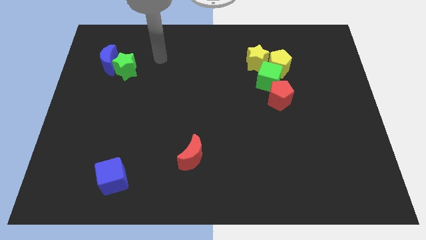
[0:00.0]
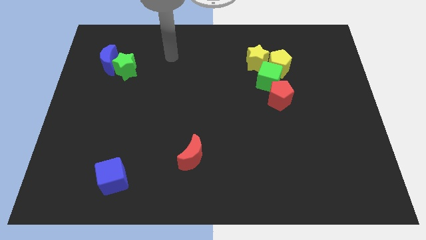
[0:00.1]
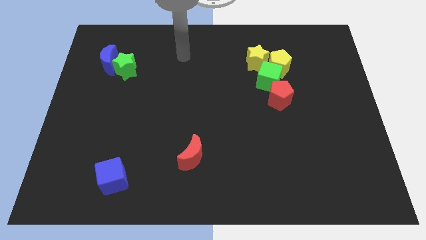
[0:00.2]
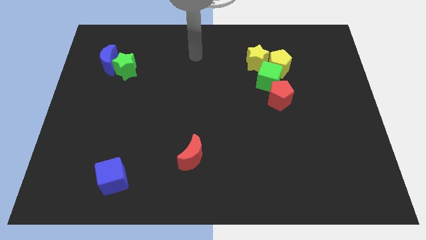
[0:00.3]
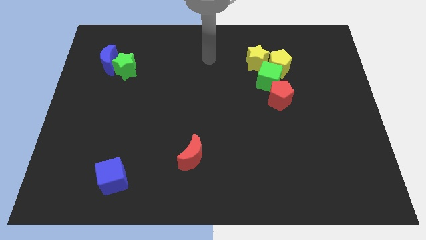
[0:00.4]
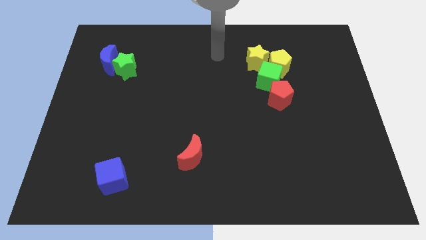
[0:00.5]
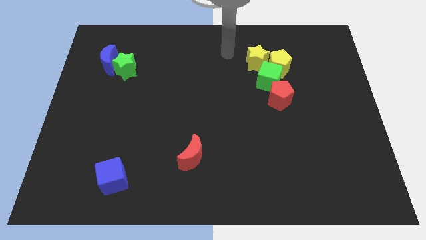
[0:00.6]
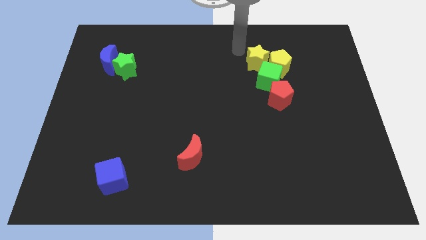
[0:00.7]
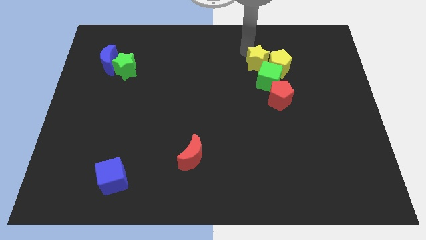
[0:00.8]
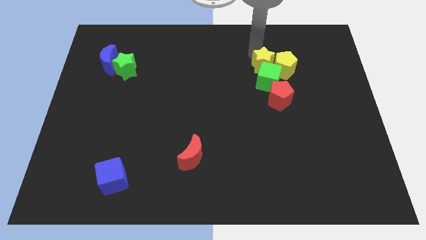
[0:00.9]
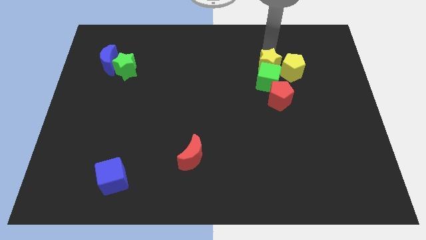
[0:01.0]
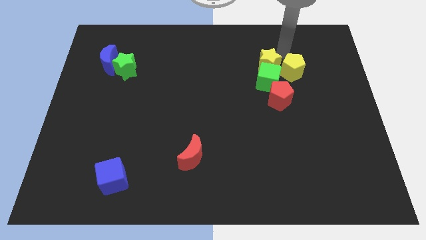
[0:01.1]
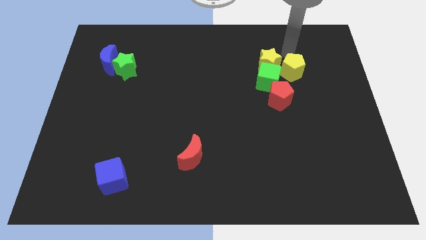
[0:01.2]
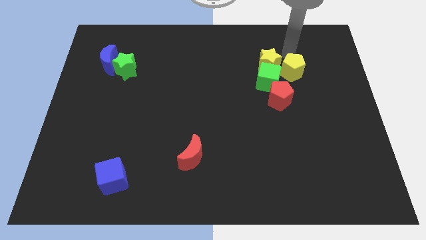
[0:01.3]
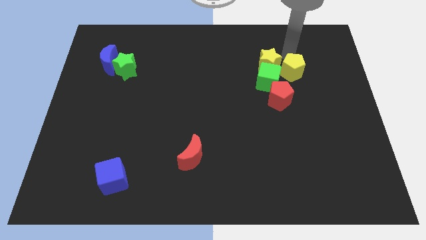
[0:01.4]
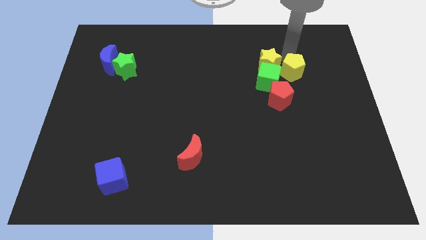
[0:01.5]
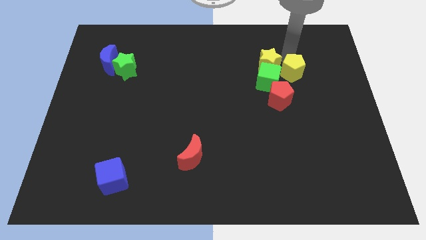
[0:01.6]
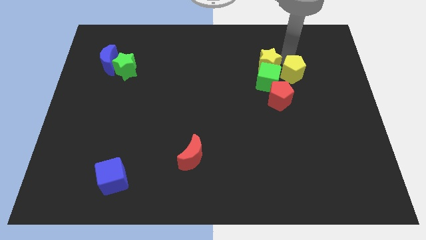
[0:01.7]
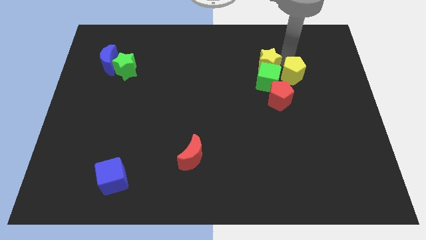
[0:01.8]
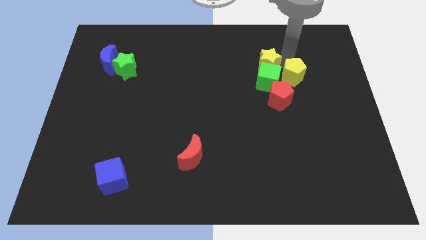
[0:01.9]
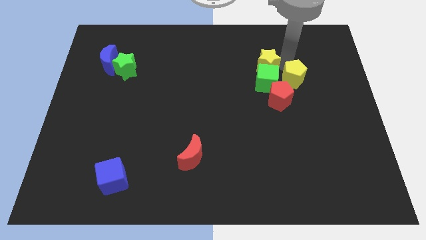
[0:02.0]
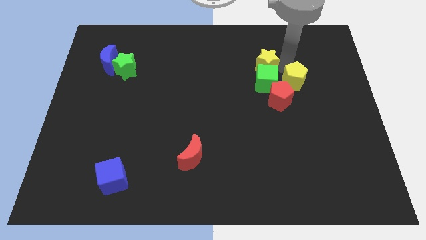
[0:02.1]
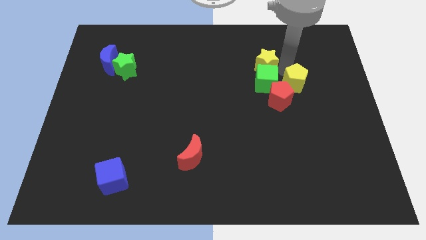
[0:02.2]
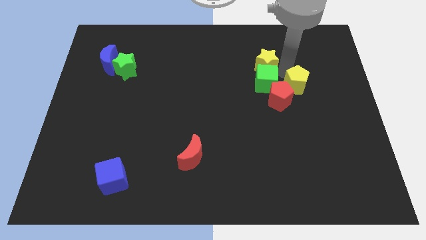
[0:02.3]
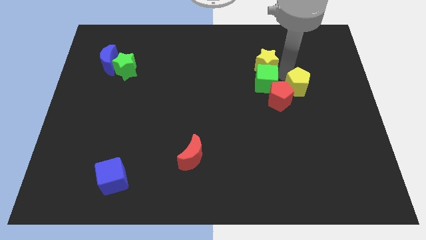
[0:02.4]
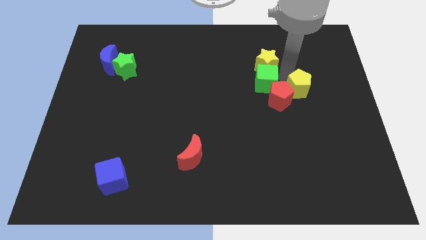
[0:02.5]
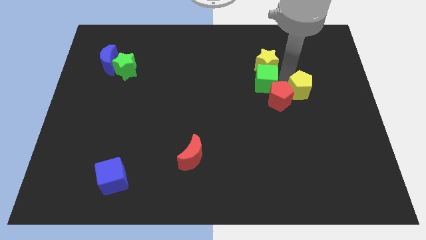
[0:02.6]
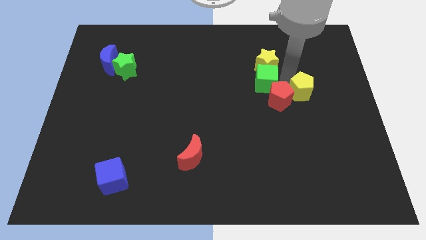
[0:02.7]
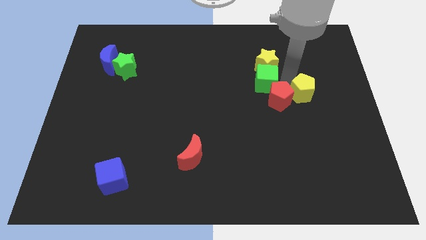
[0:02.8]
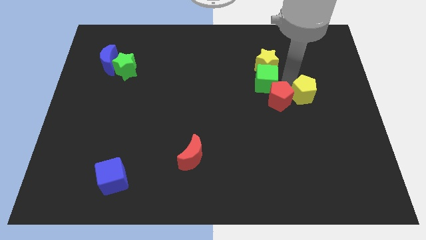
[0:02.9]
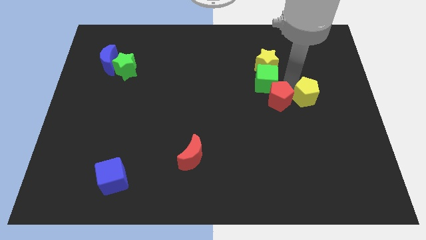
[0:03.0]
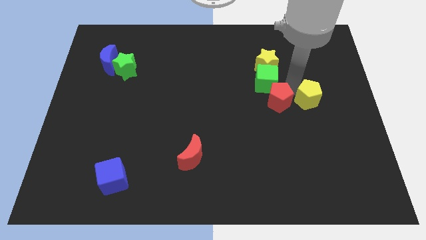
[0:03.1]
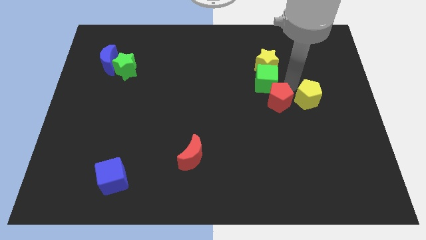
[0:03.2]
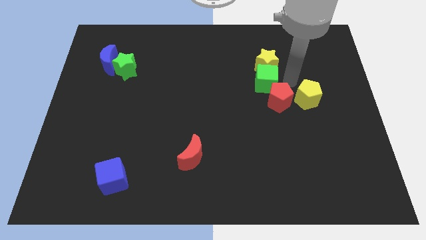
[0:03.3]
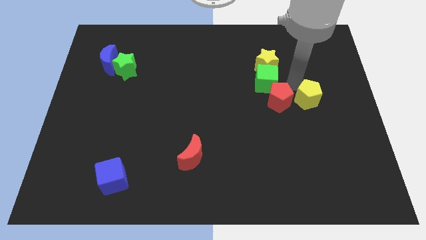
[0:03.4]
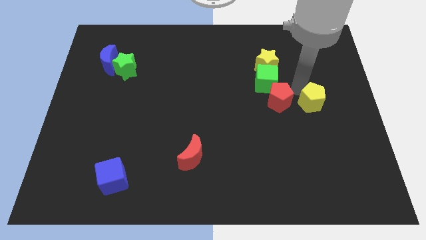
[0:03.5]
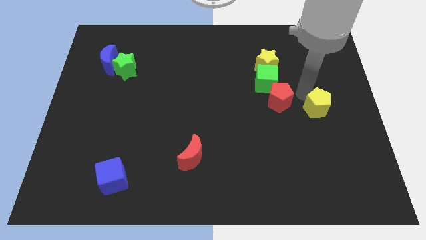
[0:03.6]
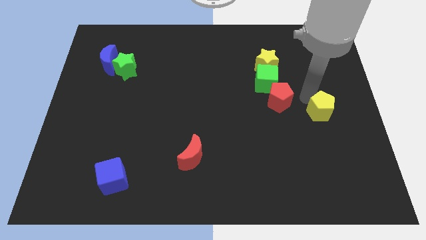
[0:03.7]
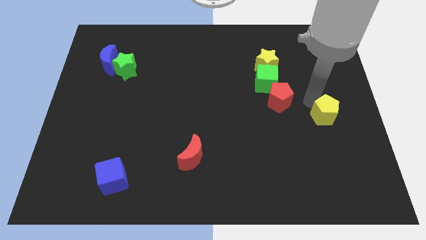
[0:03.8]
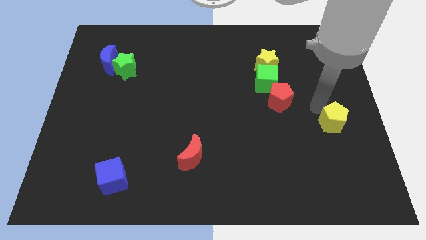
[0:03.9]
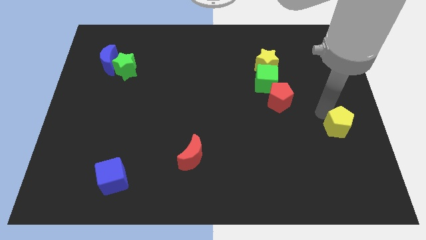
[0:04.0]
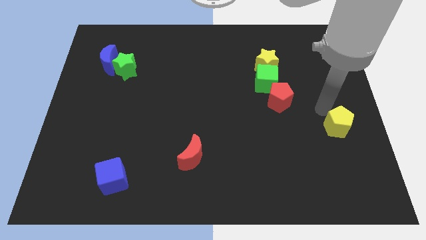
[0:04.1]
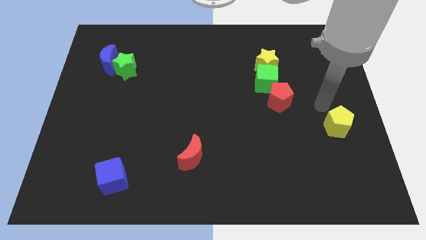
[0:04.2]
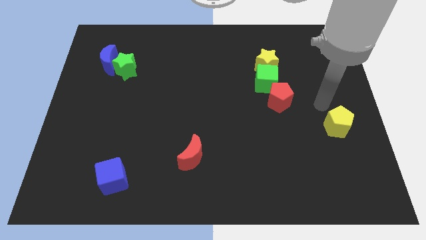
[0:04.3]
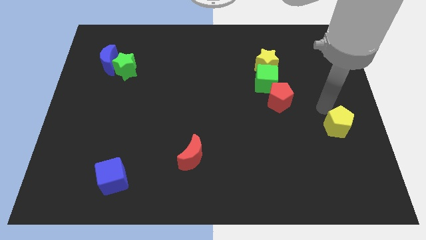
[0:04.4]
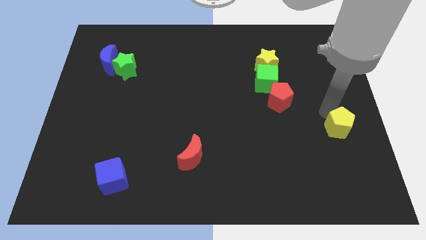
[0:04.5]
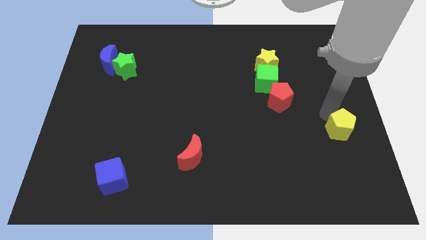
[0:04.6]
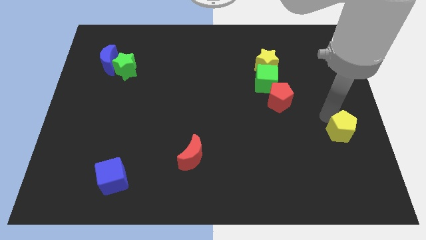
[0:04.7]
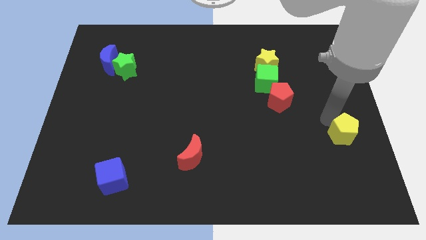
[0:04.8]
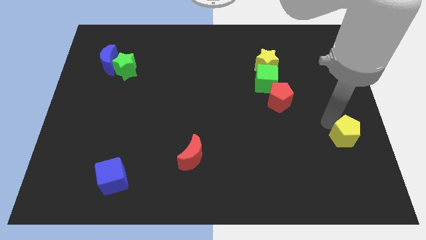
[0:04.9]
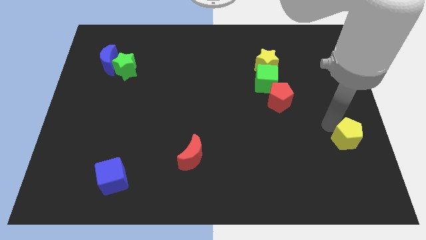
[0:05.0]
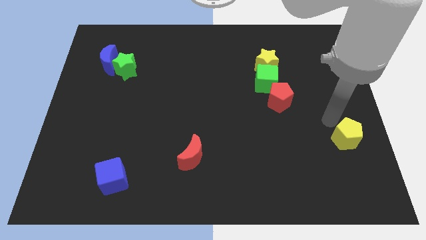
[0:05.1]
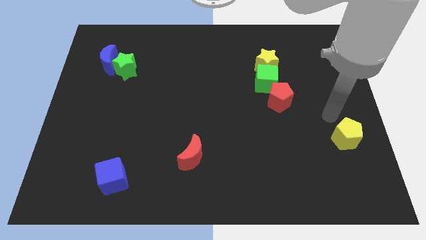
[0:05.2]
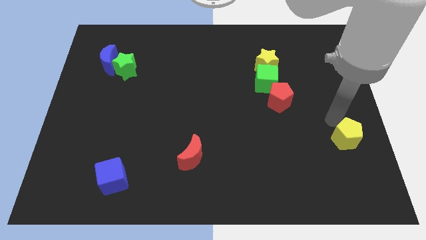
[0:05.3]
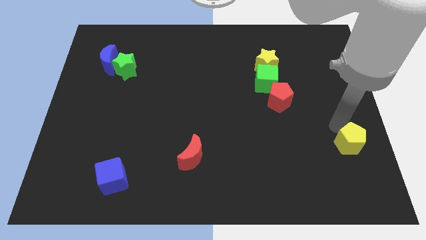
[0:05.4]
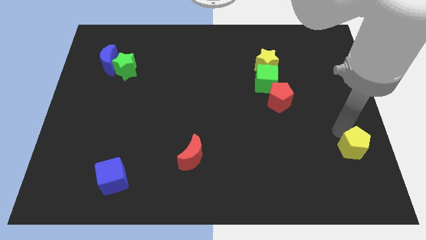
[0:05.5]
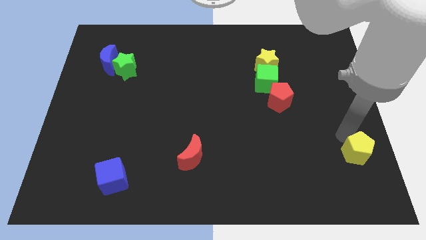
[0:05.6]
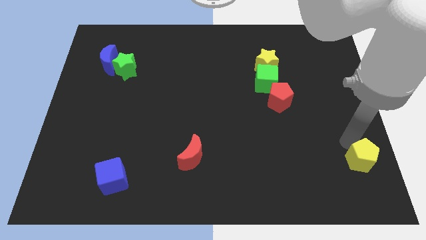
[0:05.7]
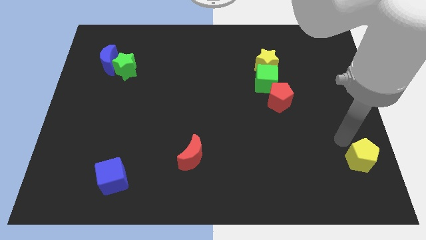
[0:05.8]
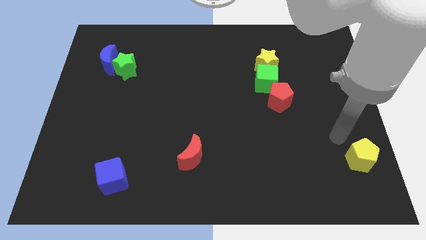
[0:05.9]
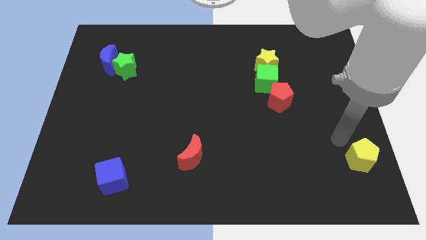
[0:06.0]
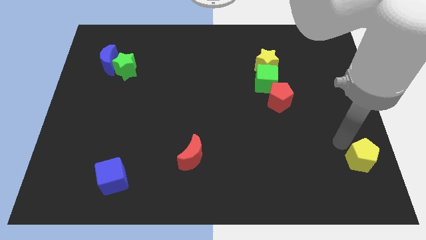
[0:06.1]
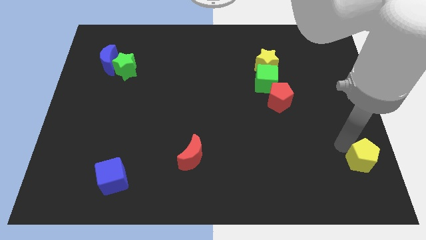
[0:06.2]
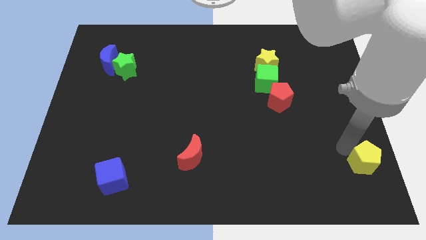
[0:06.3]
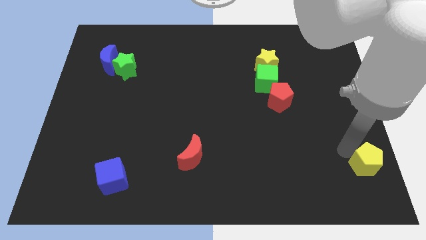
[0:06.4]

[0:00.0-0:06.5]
put the yellow pentagon to the bottom right of the board
